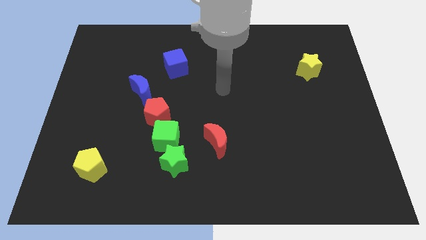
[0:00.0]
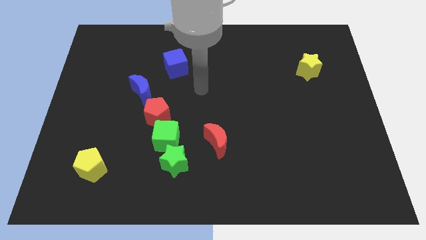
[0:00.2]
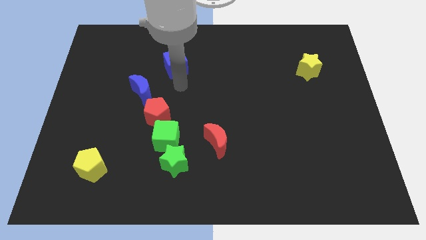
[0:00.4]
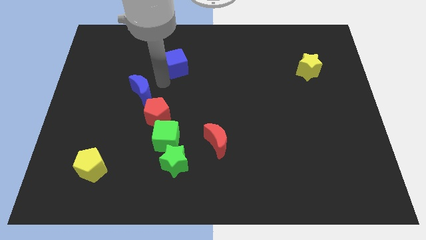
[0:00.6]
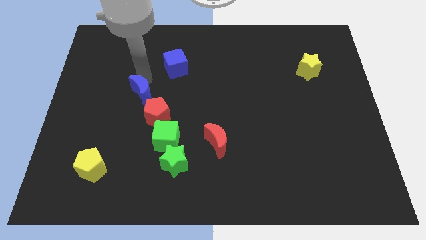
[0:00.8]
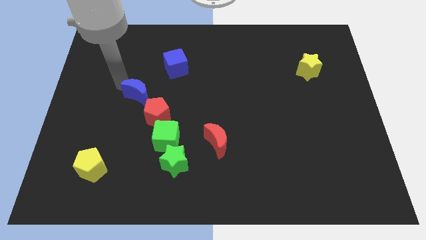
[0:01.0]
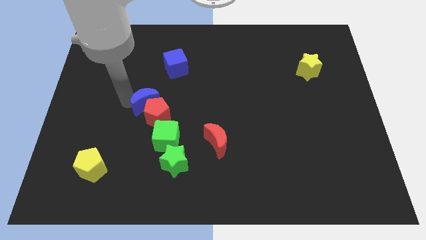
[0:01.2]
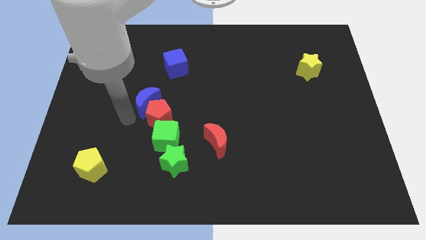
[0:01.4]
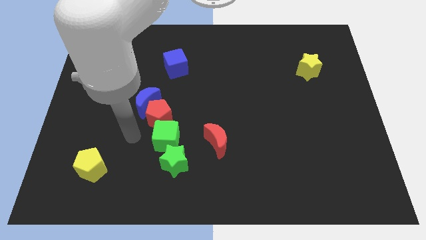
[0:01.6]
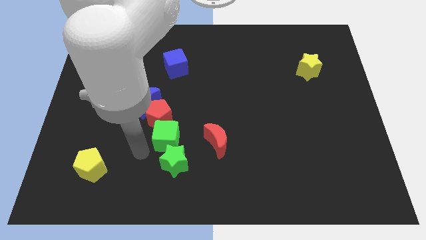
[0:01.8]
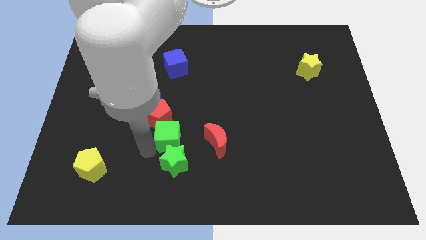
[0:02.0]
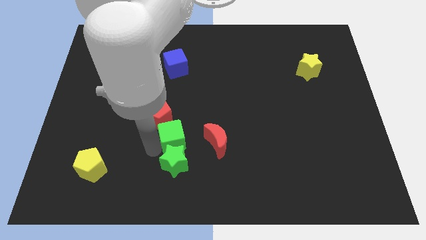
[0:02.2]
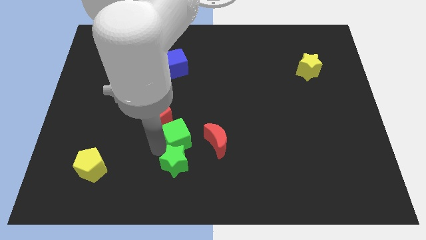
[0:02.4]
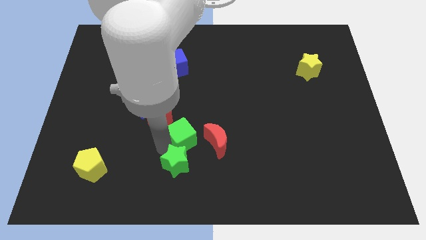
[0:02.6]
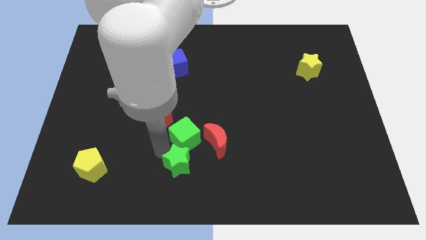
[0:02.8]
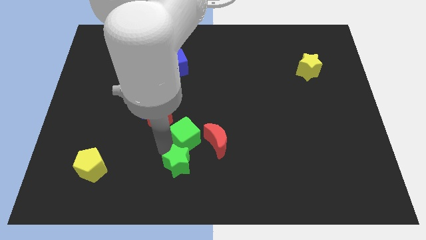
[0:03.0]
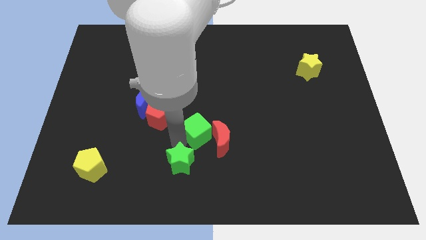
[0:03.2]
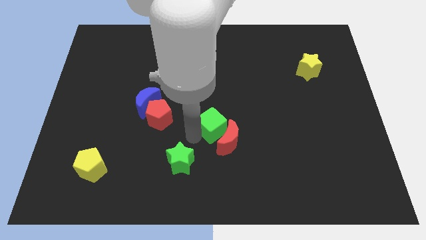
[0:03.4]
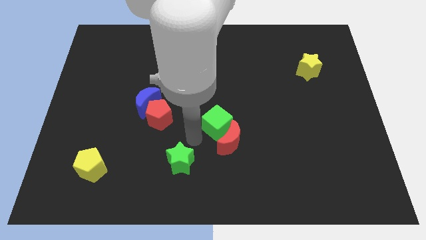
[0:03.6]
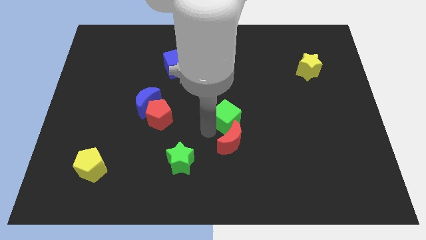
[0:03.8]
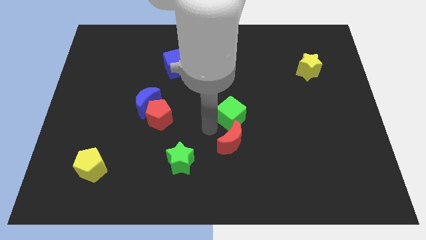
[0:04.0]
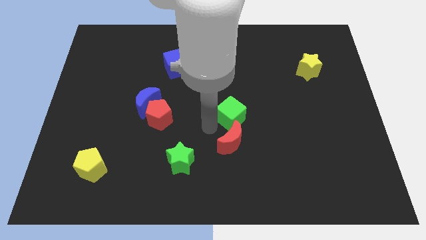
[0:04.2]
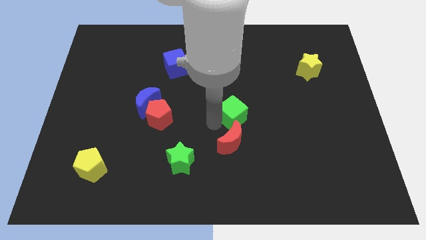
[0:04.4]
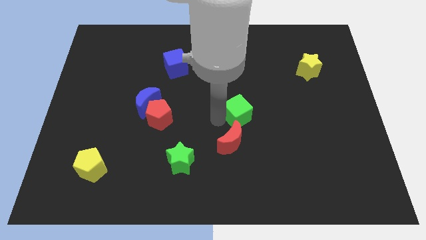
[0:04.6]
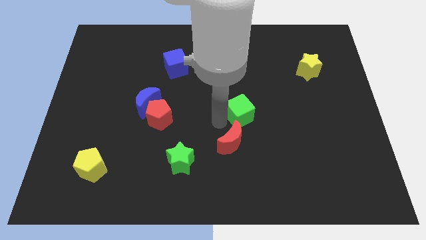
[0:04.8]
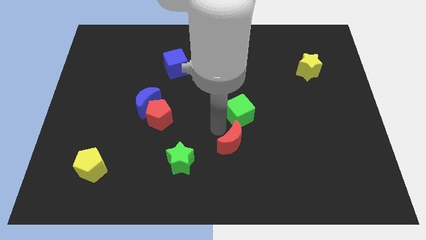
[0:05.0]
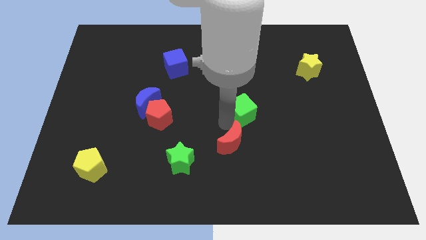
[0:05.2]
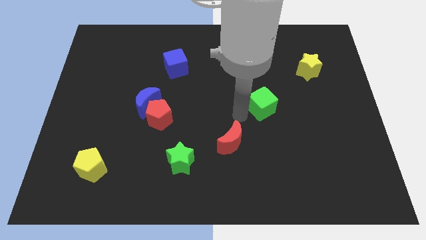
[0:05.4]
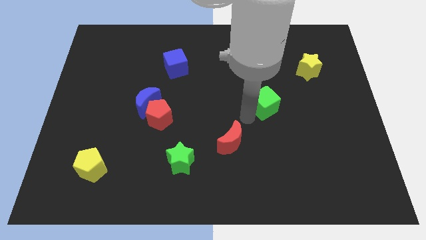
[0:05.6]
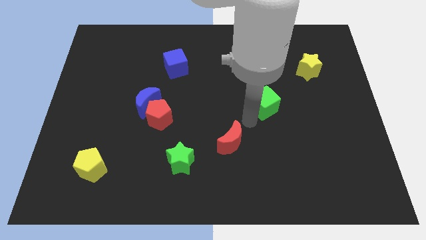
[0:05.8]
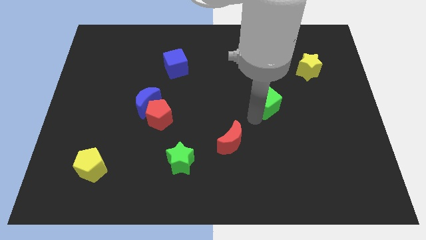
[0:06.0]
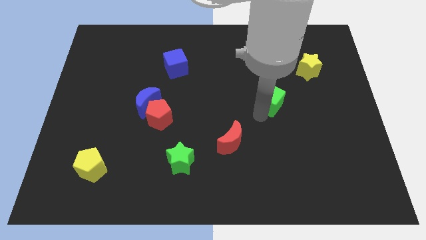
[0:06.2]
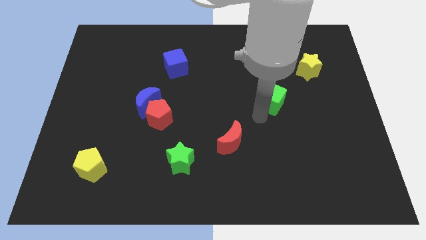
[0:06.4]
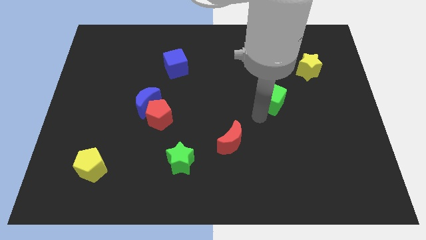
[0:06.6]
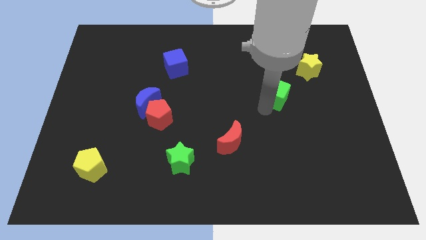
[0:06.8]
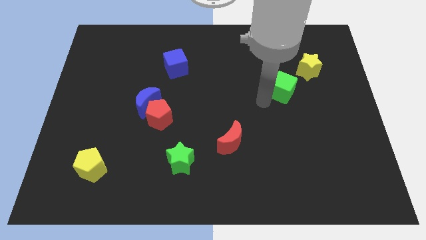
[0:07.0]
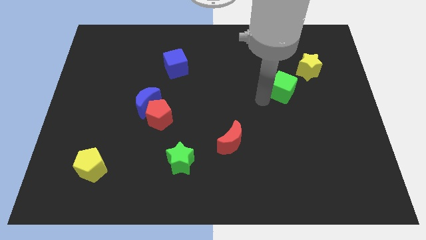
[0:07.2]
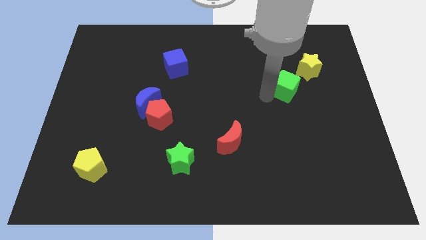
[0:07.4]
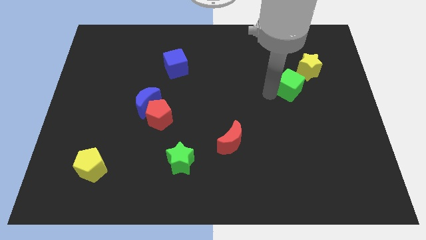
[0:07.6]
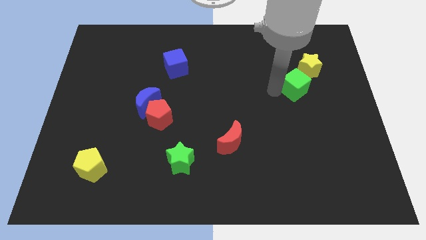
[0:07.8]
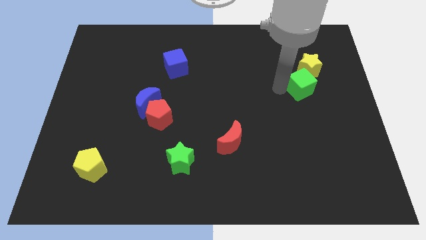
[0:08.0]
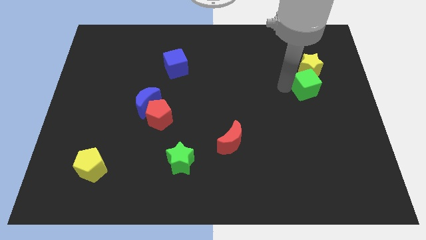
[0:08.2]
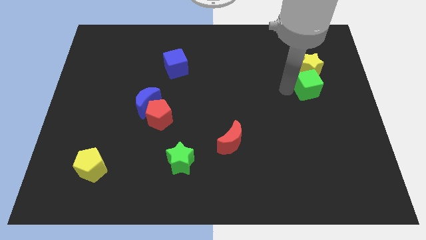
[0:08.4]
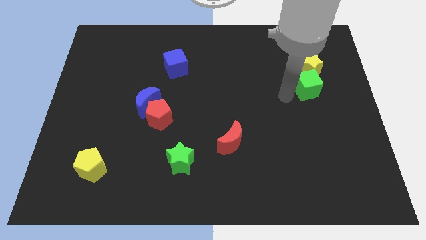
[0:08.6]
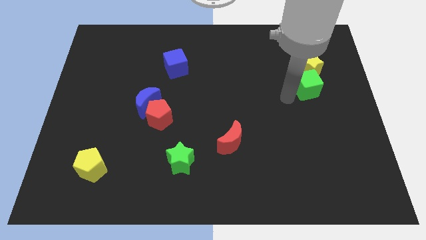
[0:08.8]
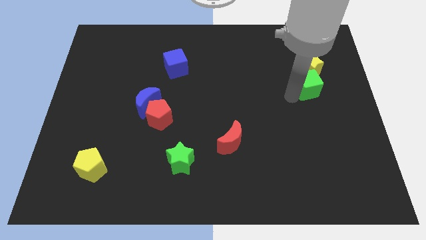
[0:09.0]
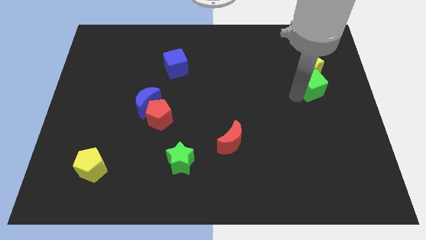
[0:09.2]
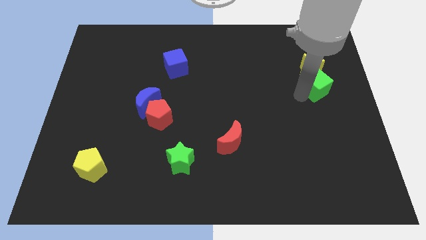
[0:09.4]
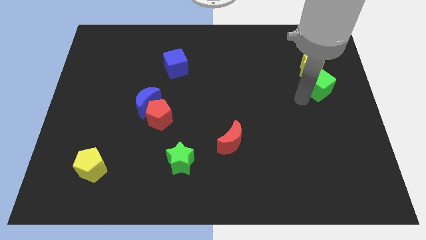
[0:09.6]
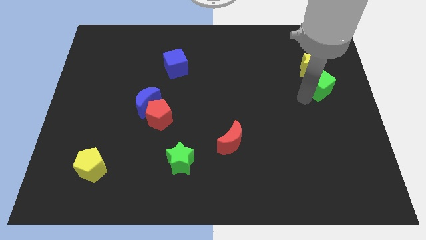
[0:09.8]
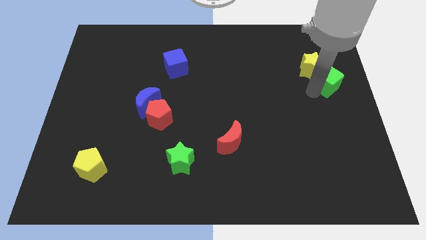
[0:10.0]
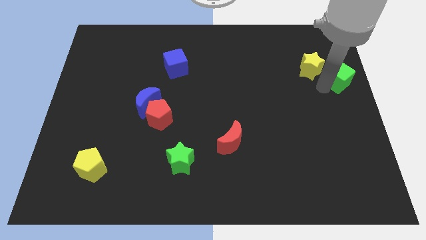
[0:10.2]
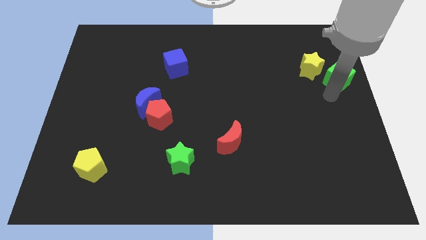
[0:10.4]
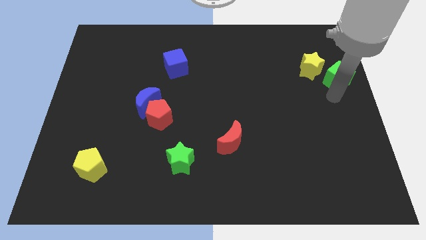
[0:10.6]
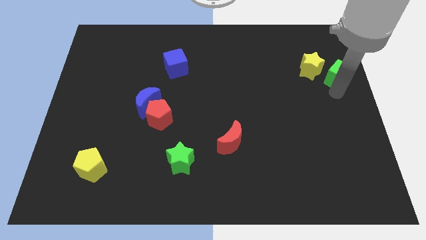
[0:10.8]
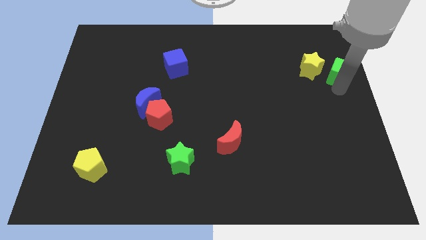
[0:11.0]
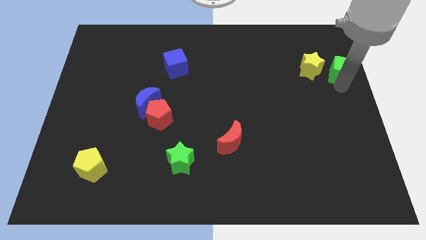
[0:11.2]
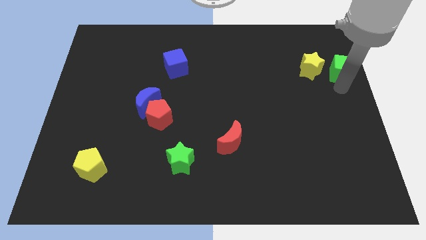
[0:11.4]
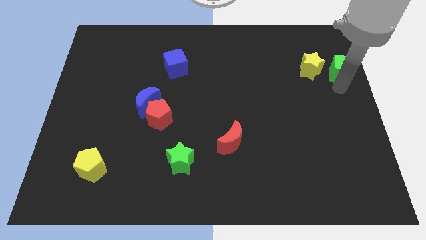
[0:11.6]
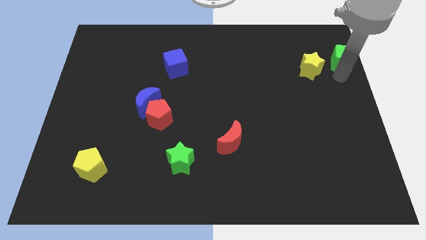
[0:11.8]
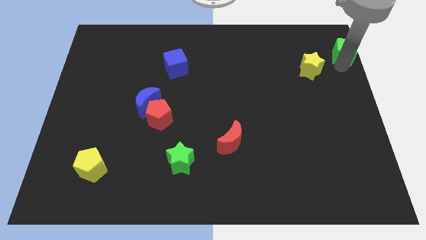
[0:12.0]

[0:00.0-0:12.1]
push the green cube to the top right corner
